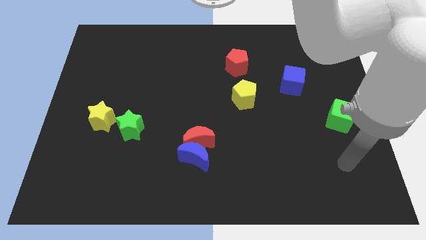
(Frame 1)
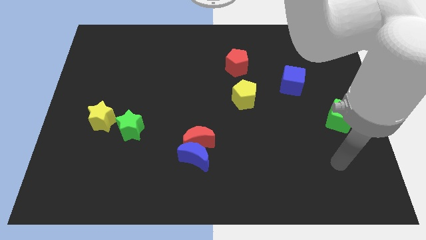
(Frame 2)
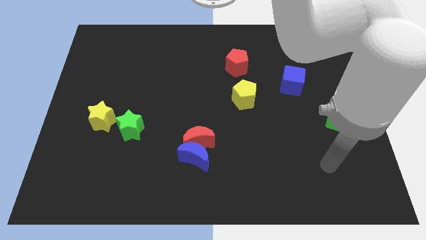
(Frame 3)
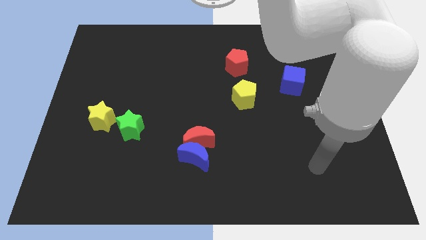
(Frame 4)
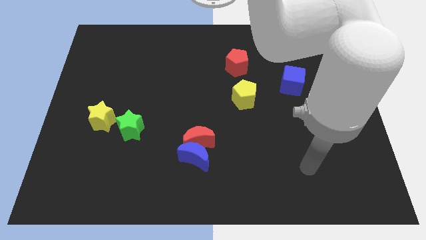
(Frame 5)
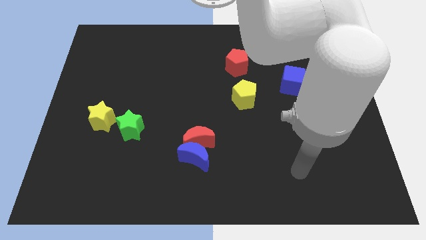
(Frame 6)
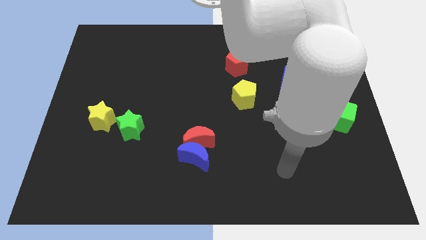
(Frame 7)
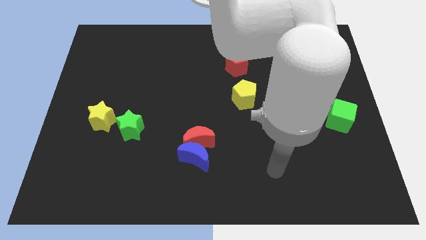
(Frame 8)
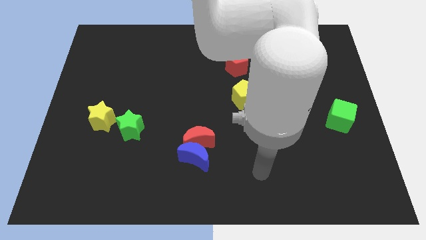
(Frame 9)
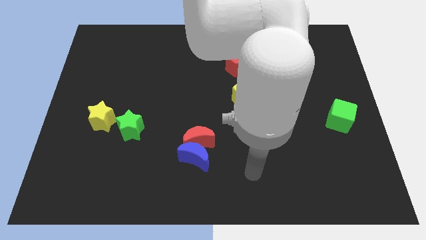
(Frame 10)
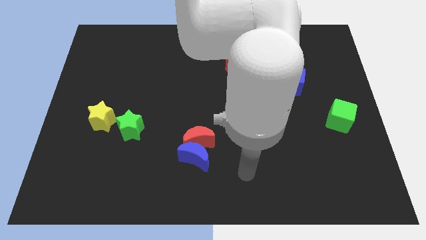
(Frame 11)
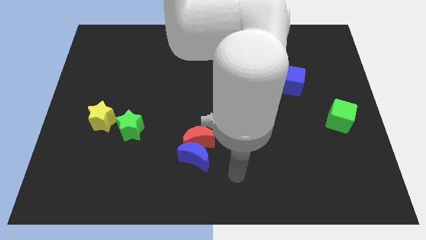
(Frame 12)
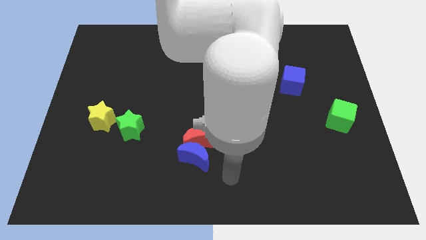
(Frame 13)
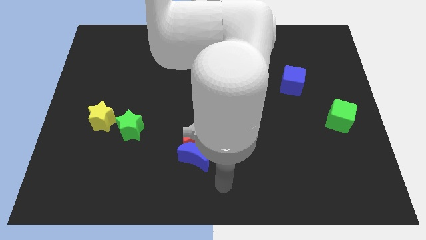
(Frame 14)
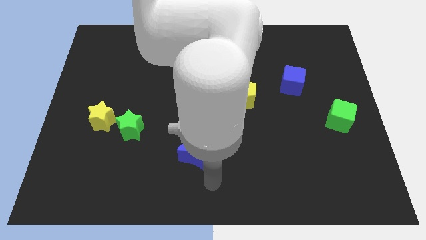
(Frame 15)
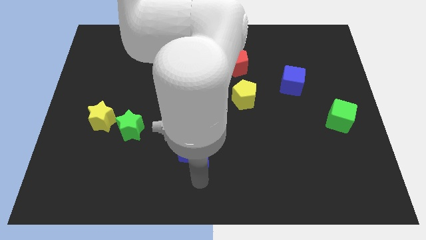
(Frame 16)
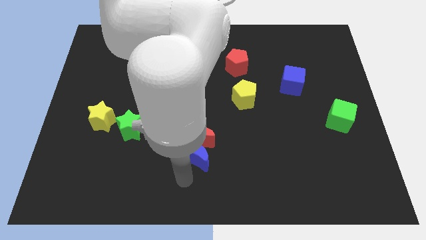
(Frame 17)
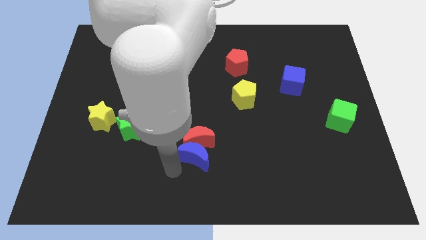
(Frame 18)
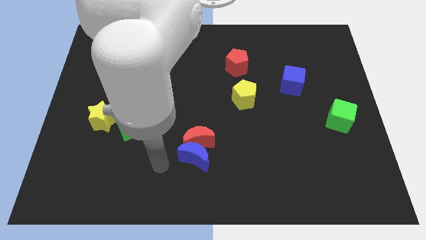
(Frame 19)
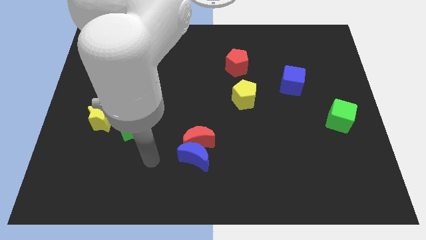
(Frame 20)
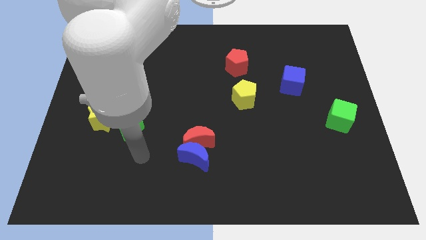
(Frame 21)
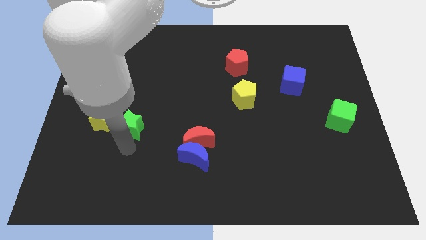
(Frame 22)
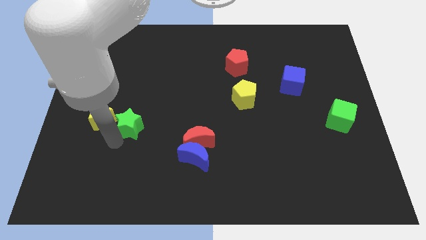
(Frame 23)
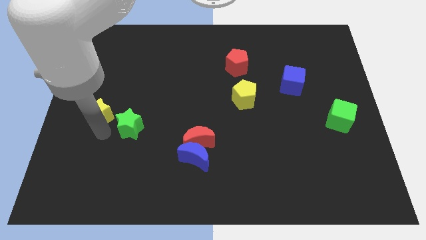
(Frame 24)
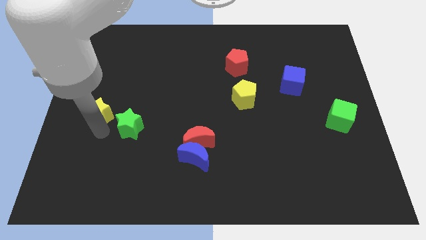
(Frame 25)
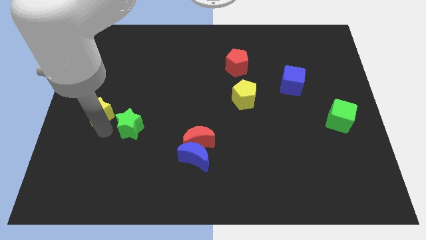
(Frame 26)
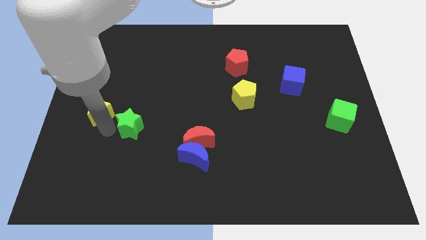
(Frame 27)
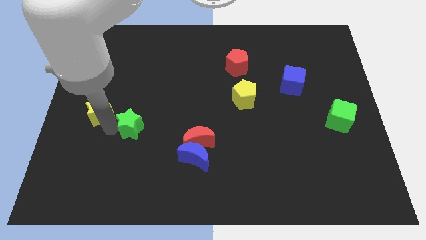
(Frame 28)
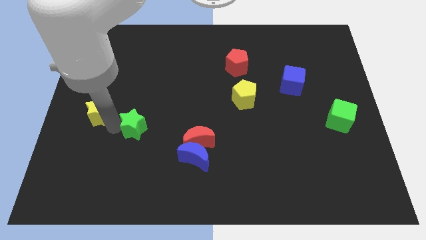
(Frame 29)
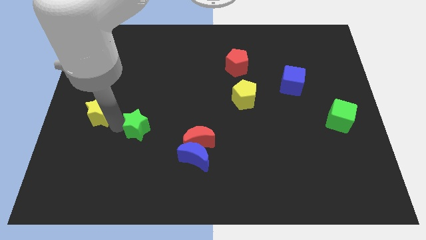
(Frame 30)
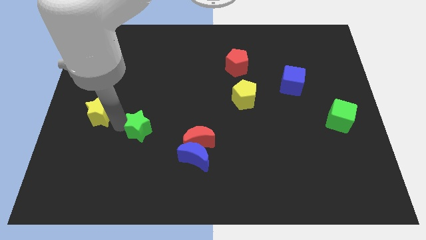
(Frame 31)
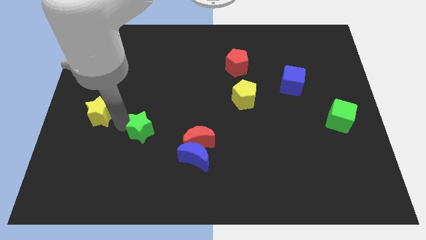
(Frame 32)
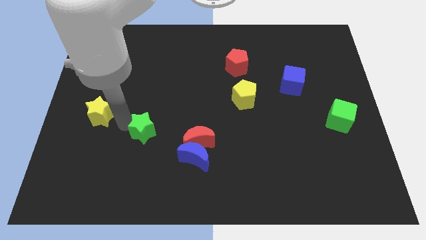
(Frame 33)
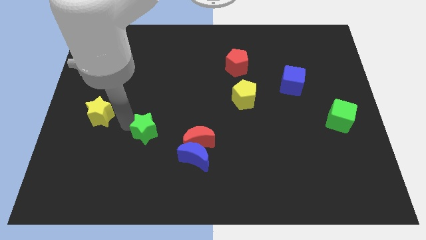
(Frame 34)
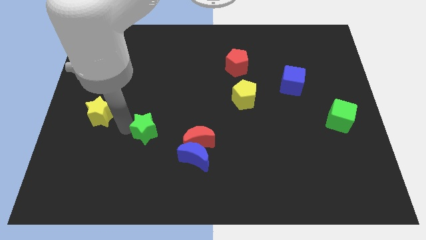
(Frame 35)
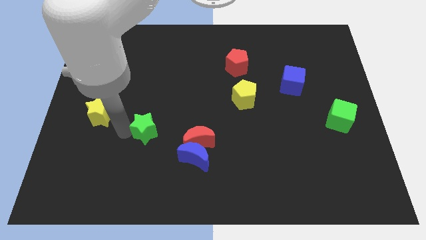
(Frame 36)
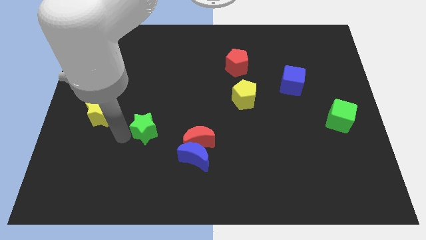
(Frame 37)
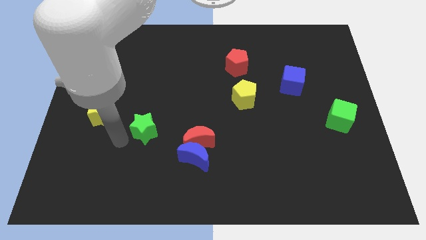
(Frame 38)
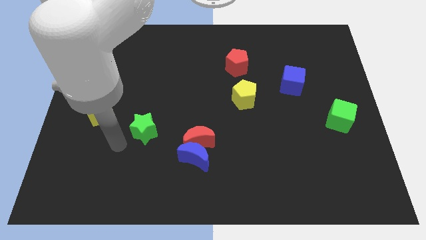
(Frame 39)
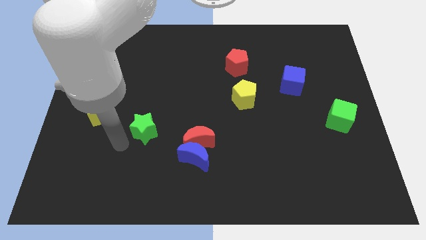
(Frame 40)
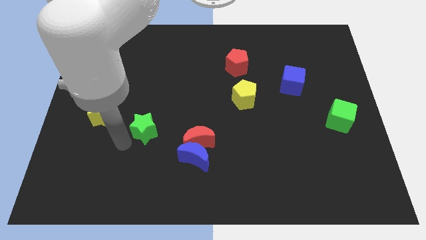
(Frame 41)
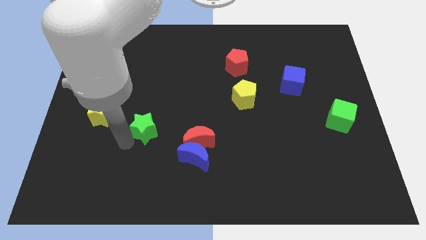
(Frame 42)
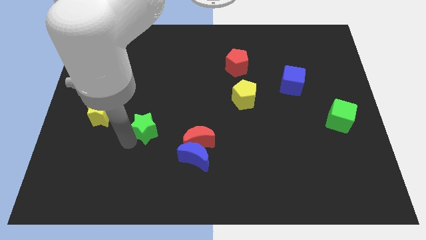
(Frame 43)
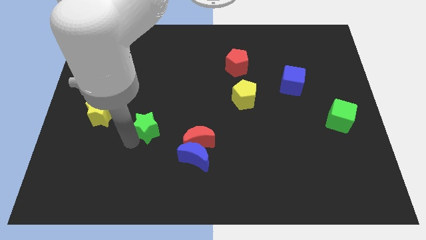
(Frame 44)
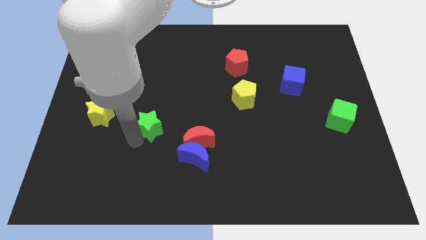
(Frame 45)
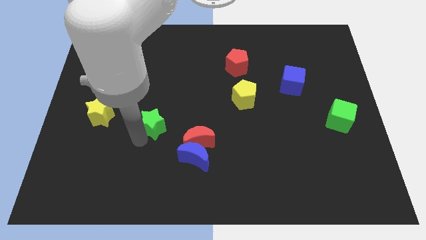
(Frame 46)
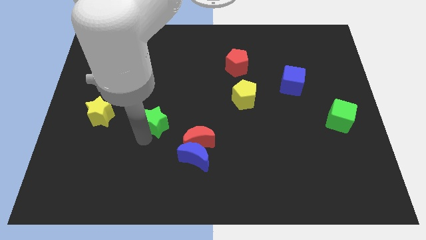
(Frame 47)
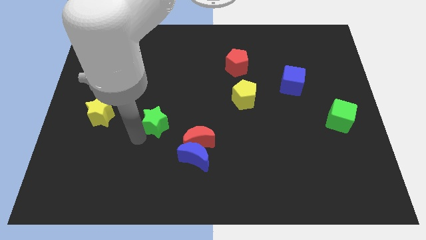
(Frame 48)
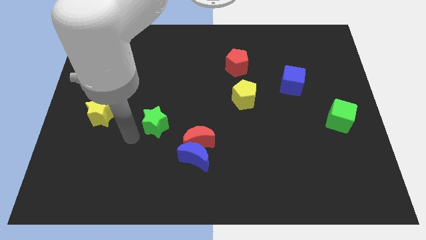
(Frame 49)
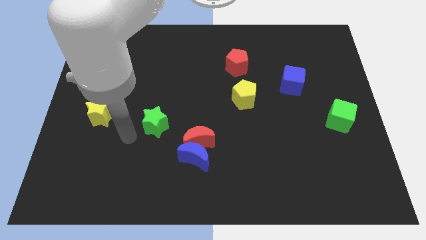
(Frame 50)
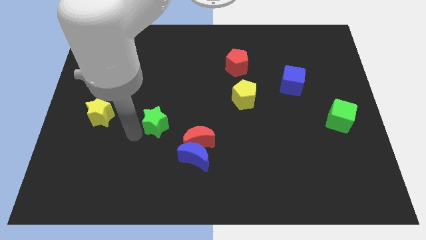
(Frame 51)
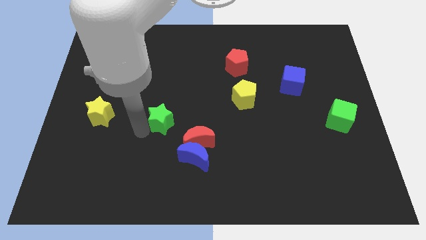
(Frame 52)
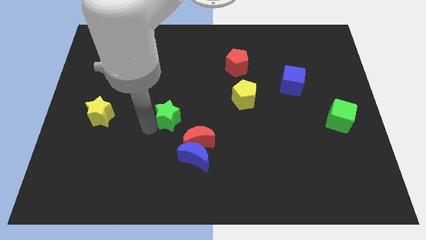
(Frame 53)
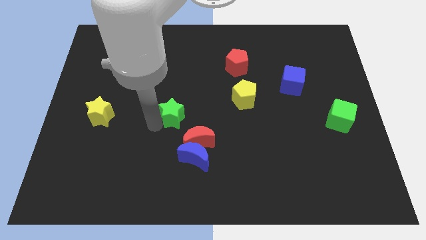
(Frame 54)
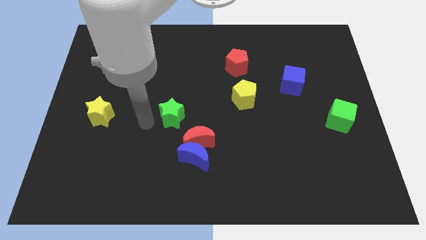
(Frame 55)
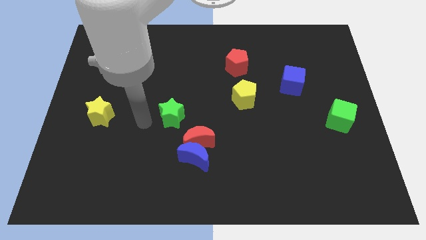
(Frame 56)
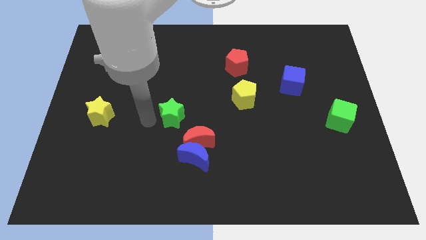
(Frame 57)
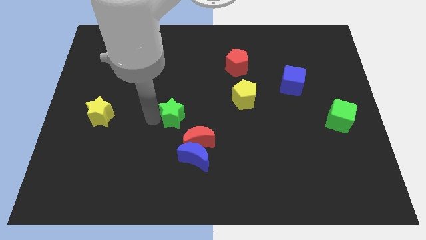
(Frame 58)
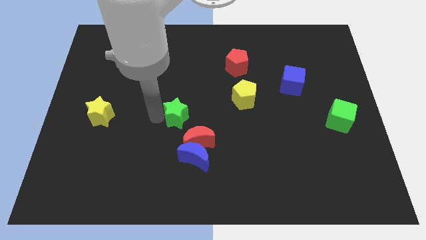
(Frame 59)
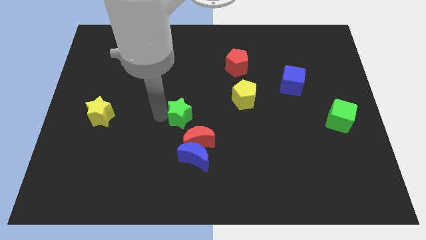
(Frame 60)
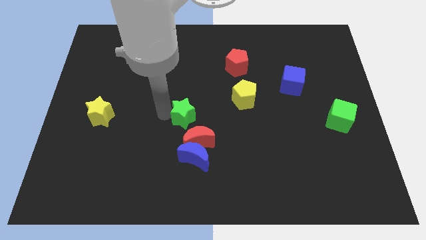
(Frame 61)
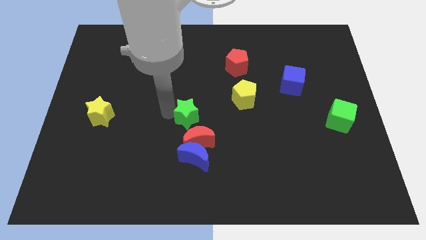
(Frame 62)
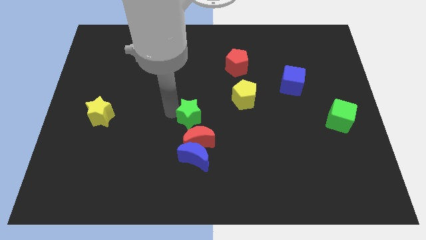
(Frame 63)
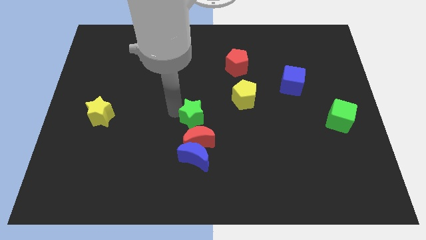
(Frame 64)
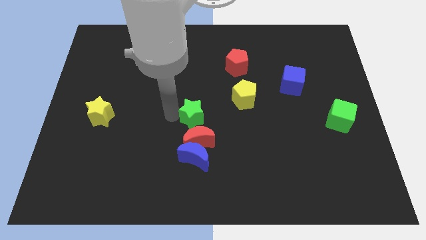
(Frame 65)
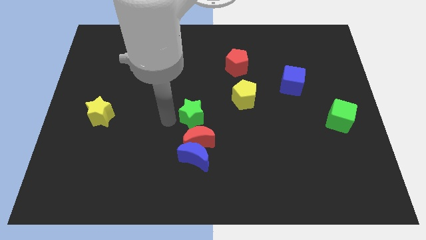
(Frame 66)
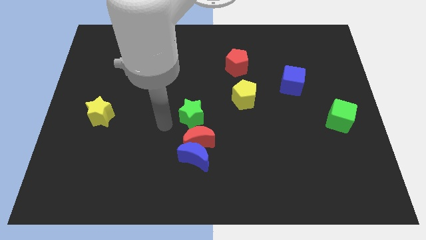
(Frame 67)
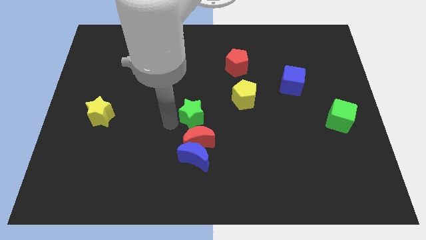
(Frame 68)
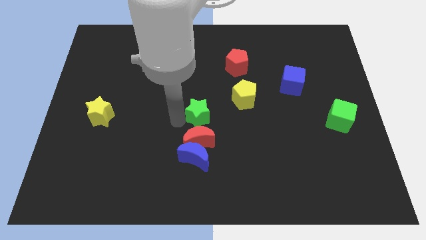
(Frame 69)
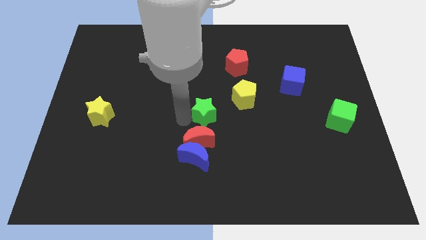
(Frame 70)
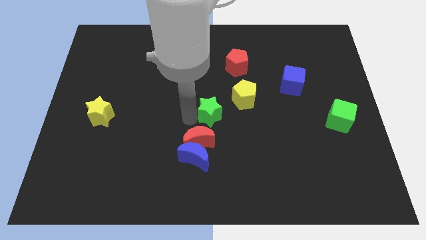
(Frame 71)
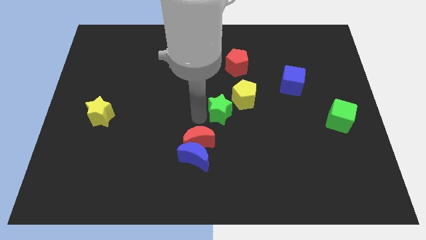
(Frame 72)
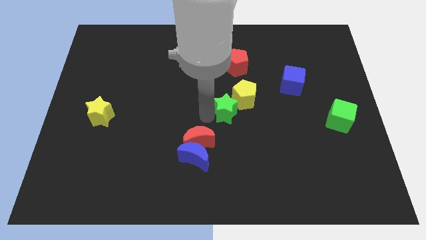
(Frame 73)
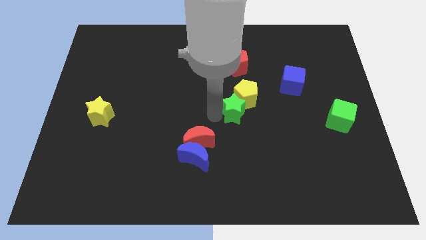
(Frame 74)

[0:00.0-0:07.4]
put the green star towards the yellow pentagon
